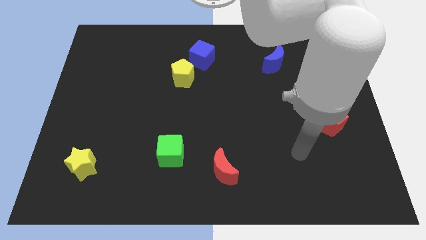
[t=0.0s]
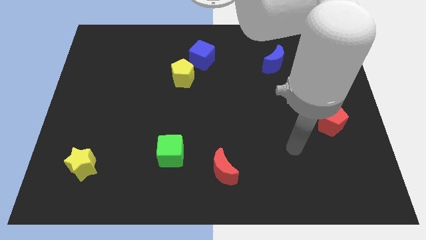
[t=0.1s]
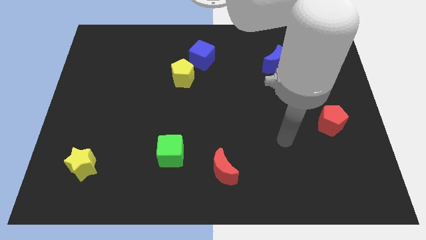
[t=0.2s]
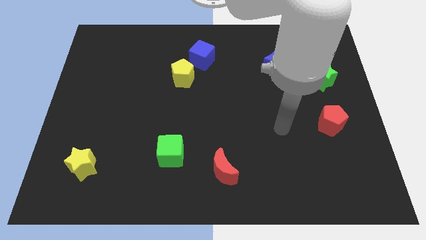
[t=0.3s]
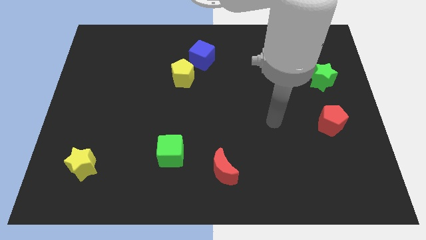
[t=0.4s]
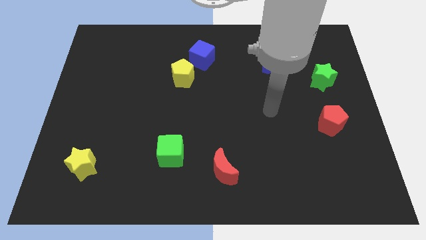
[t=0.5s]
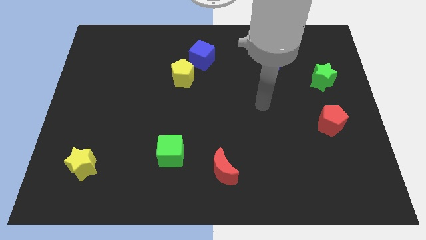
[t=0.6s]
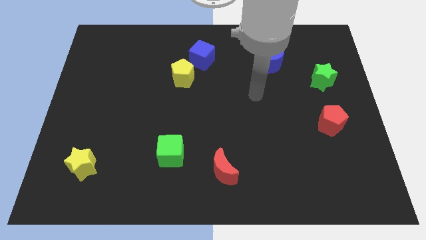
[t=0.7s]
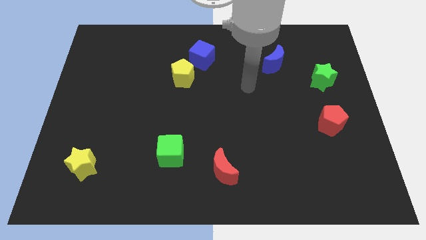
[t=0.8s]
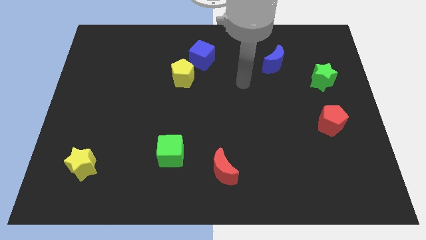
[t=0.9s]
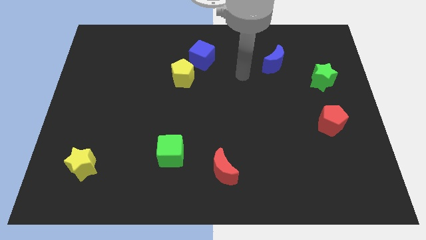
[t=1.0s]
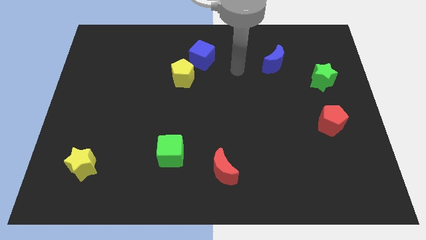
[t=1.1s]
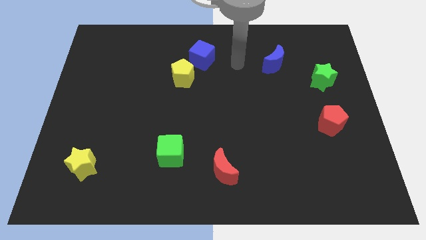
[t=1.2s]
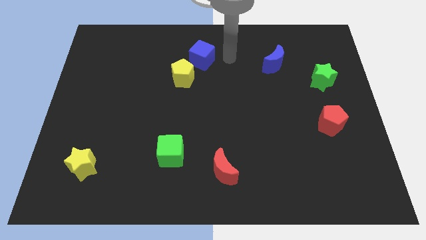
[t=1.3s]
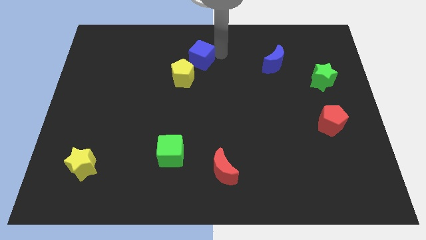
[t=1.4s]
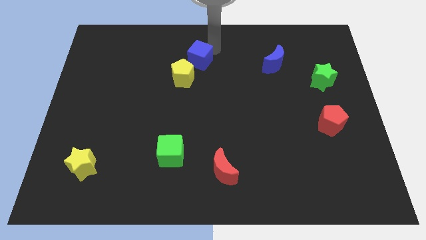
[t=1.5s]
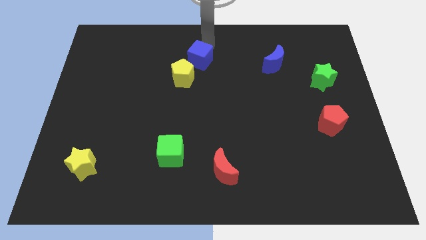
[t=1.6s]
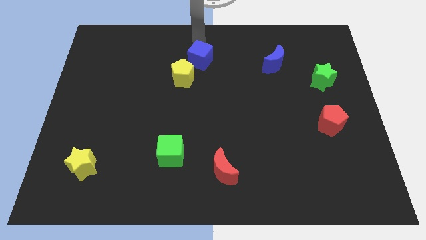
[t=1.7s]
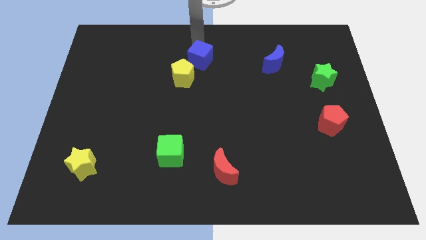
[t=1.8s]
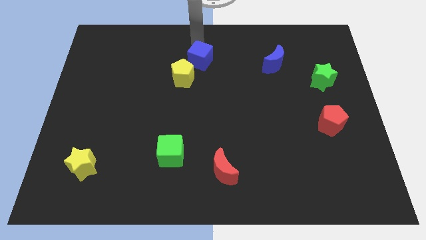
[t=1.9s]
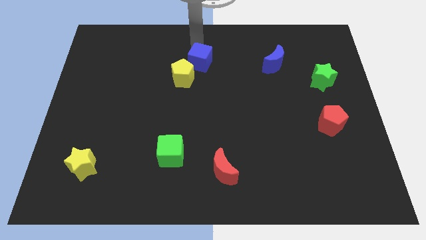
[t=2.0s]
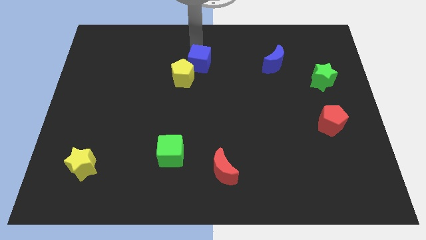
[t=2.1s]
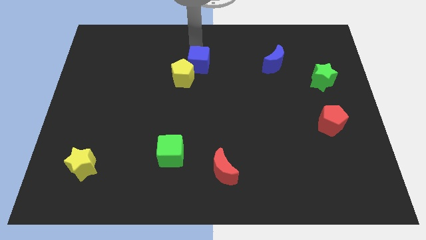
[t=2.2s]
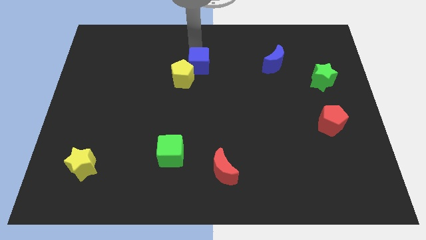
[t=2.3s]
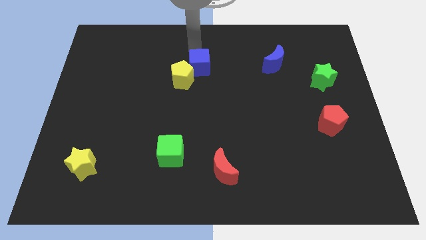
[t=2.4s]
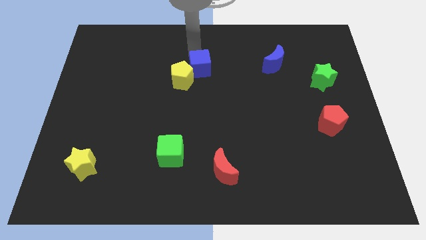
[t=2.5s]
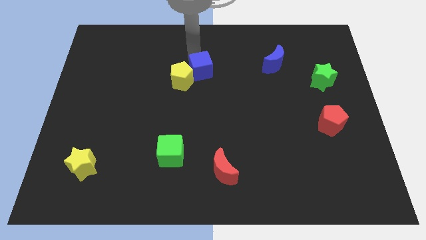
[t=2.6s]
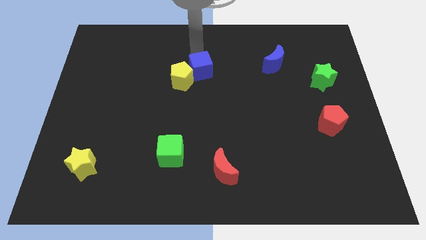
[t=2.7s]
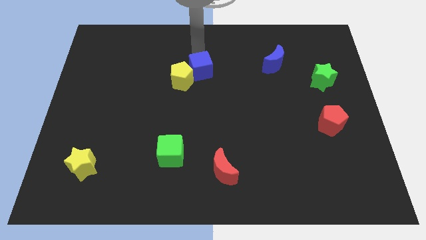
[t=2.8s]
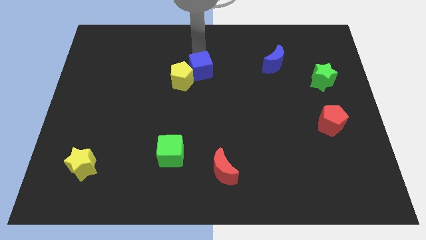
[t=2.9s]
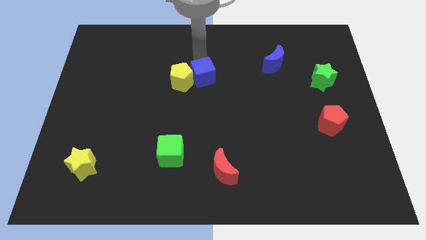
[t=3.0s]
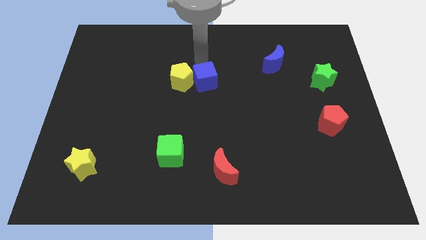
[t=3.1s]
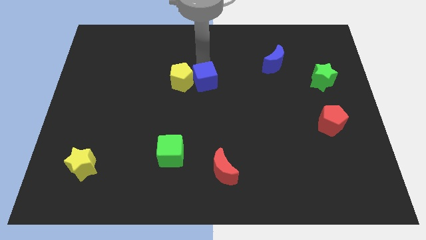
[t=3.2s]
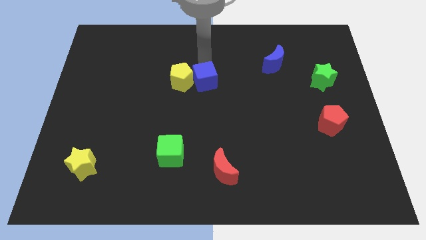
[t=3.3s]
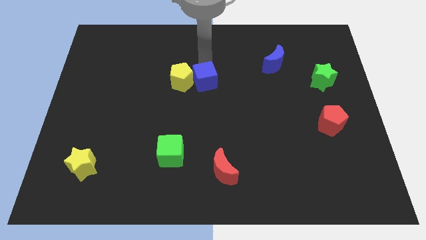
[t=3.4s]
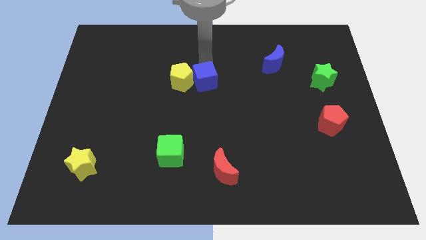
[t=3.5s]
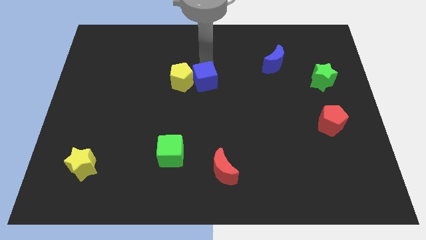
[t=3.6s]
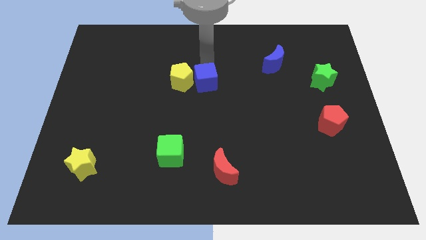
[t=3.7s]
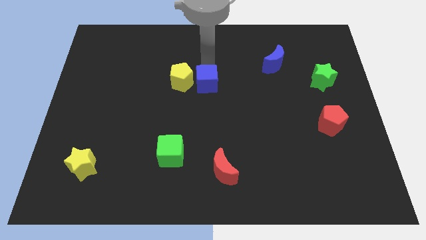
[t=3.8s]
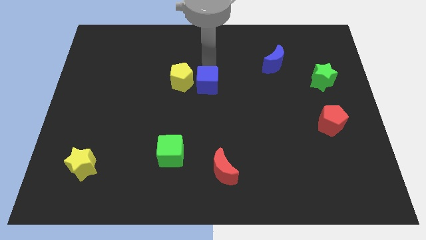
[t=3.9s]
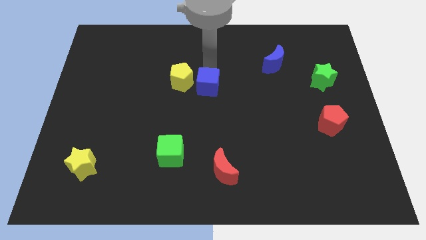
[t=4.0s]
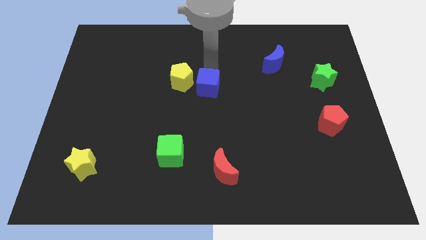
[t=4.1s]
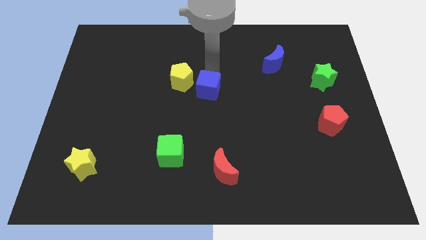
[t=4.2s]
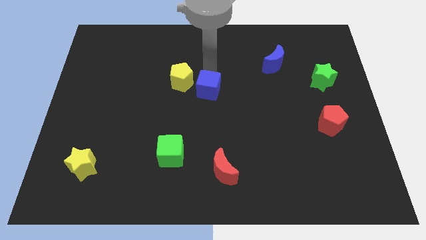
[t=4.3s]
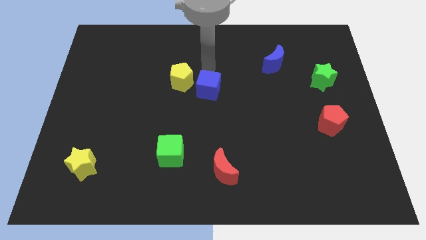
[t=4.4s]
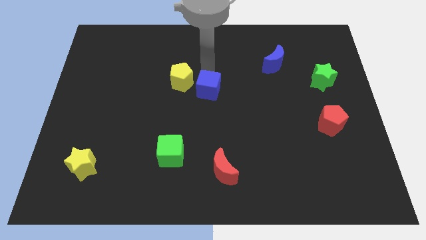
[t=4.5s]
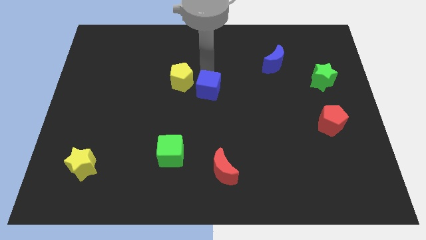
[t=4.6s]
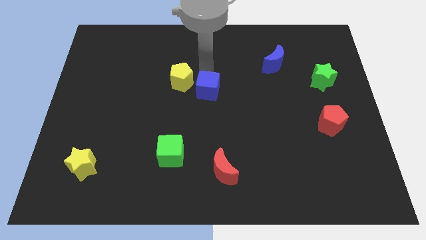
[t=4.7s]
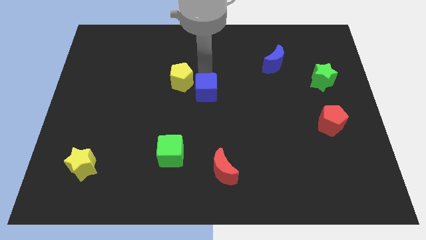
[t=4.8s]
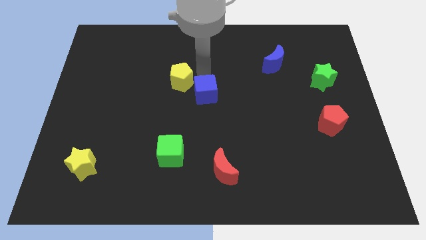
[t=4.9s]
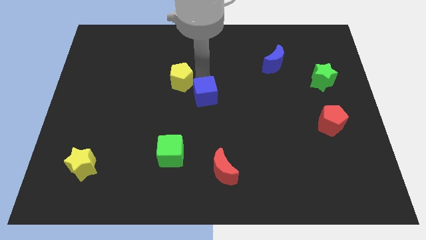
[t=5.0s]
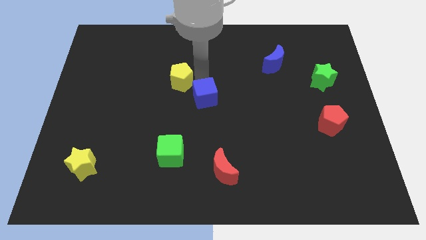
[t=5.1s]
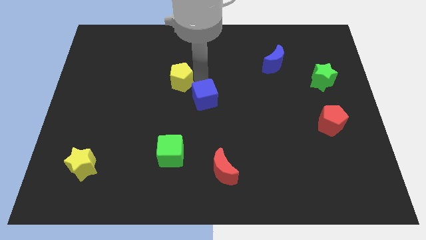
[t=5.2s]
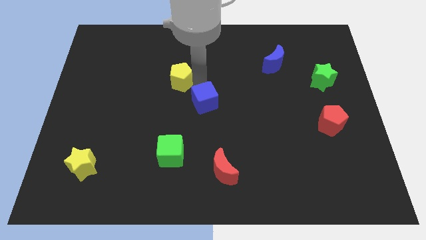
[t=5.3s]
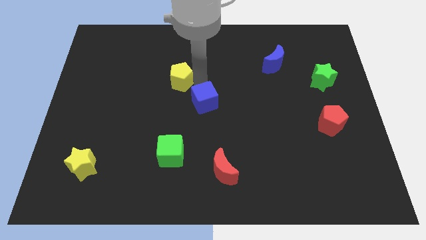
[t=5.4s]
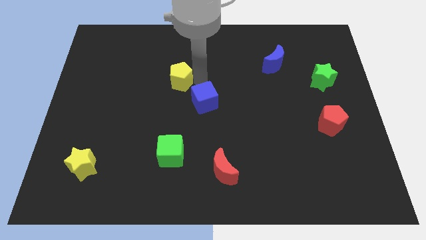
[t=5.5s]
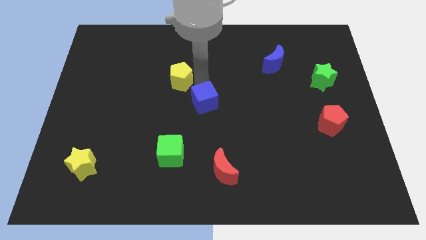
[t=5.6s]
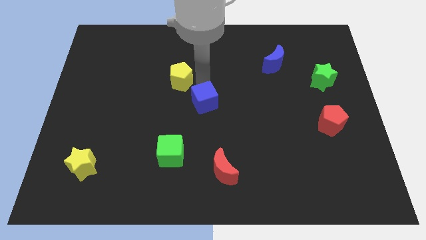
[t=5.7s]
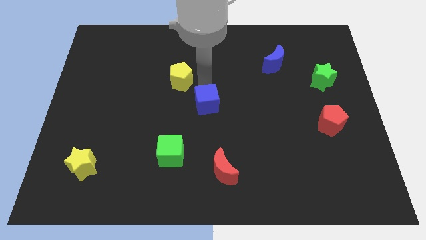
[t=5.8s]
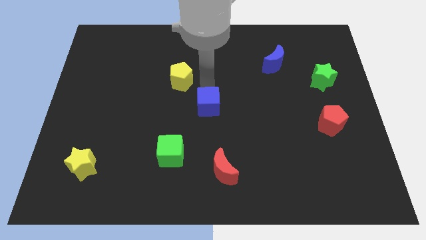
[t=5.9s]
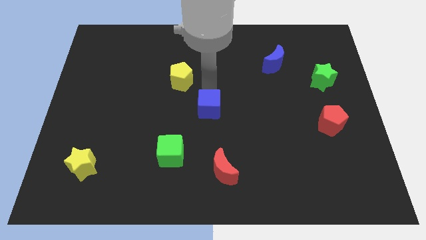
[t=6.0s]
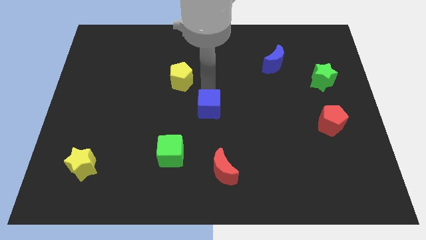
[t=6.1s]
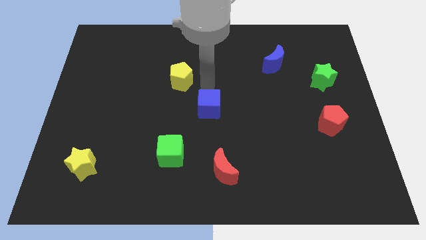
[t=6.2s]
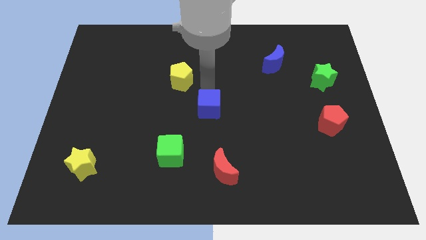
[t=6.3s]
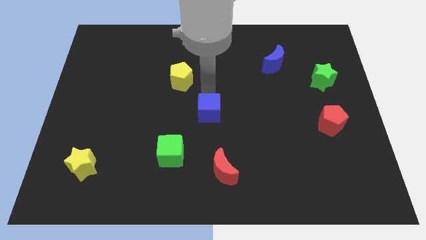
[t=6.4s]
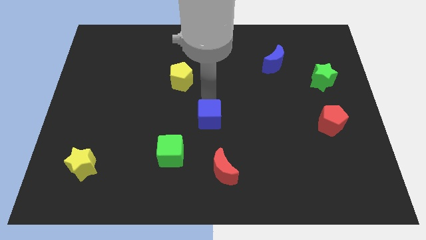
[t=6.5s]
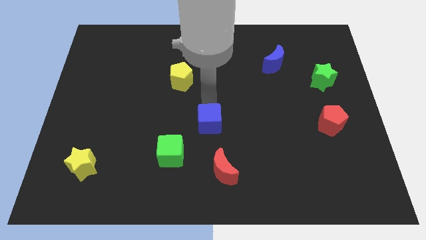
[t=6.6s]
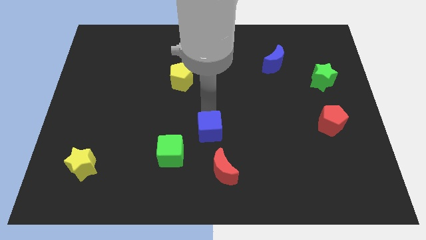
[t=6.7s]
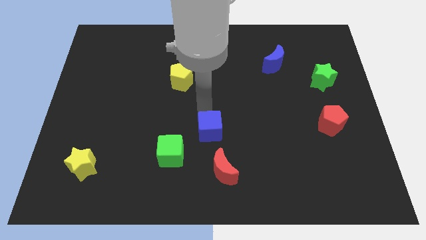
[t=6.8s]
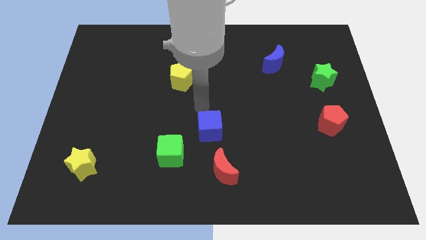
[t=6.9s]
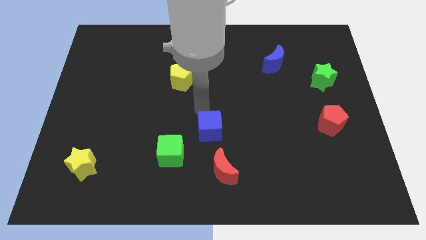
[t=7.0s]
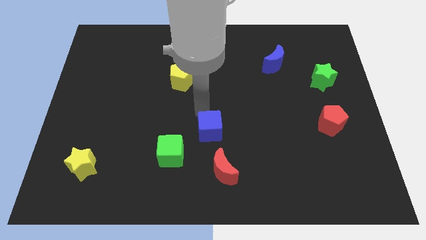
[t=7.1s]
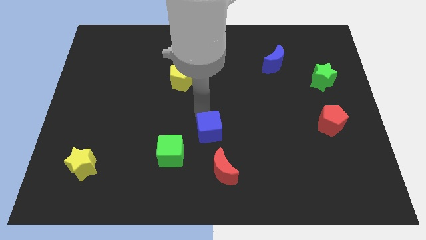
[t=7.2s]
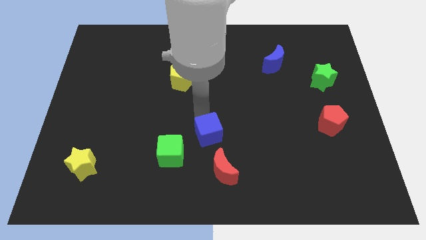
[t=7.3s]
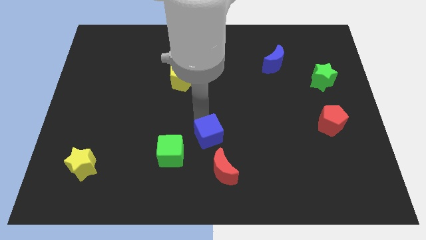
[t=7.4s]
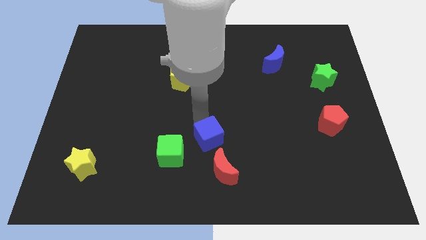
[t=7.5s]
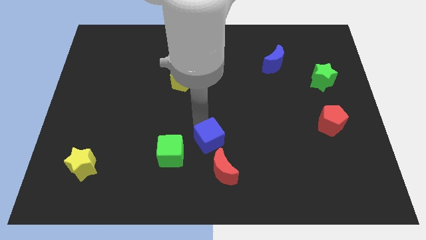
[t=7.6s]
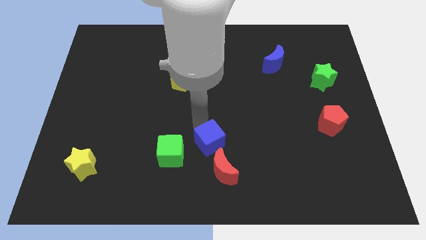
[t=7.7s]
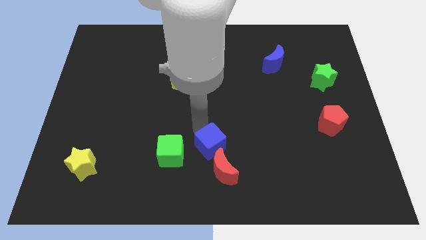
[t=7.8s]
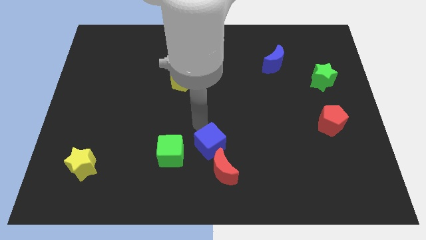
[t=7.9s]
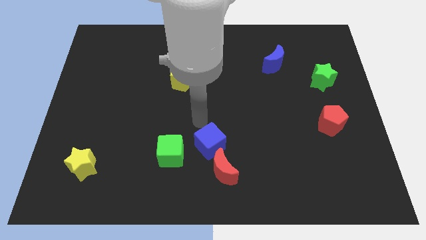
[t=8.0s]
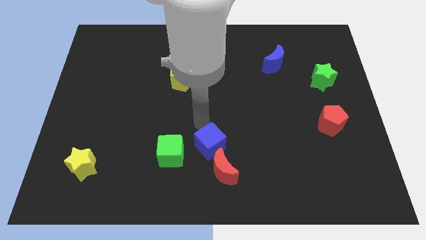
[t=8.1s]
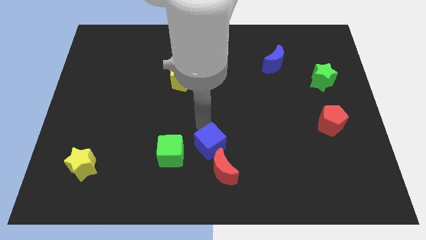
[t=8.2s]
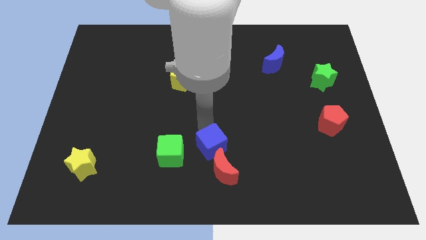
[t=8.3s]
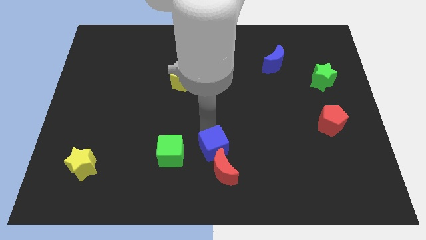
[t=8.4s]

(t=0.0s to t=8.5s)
slide the blue cube next to the red moon
